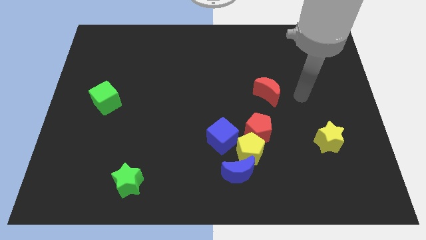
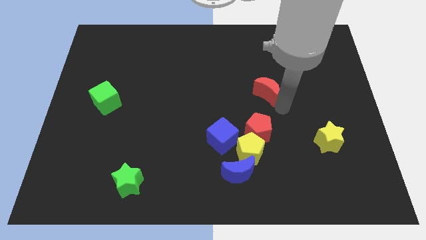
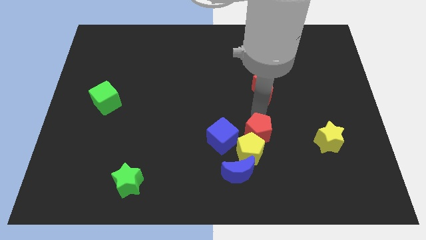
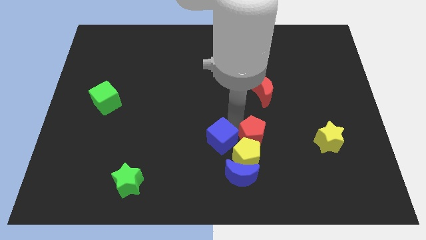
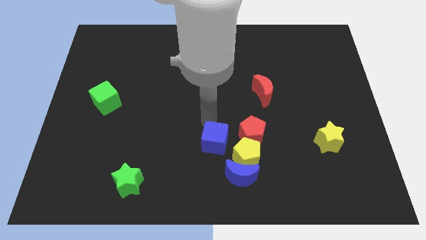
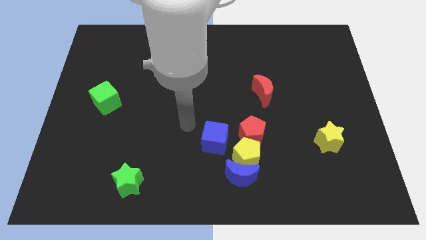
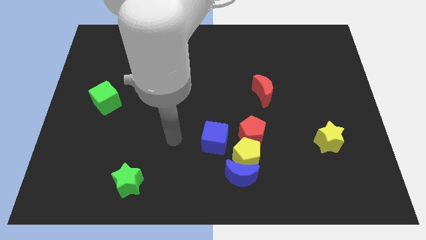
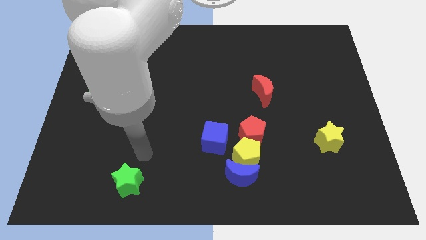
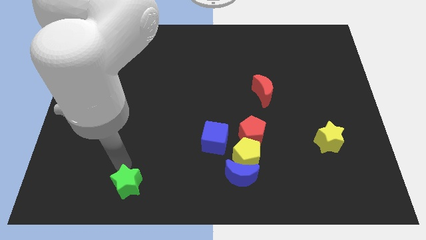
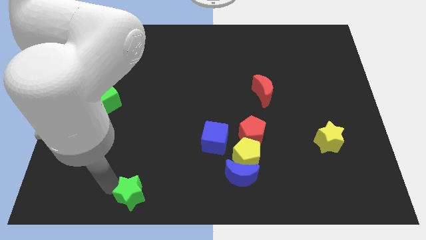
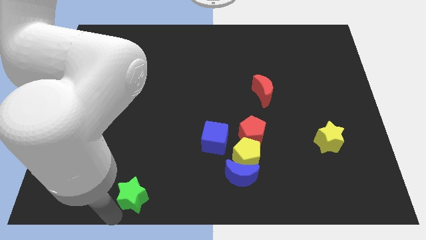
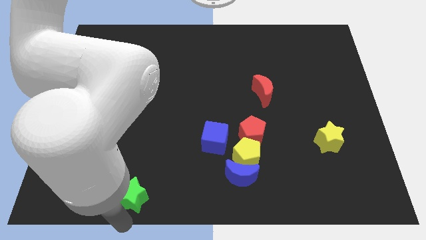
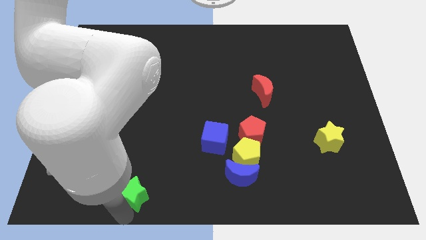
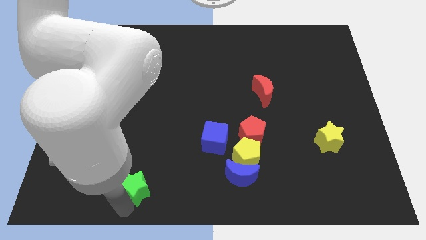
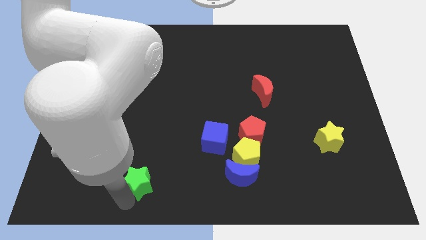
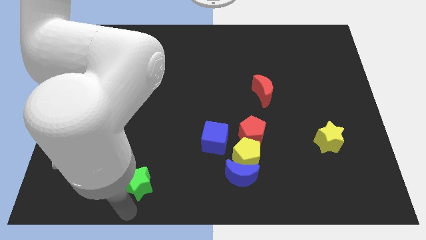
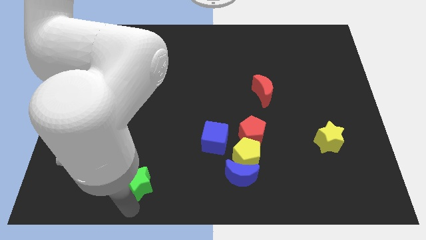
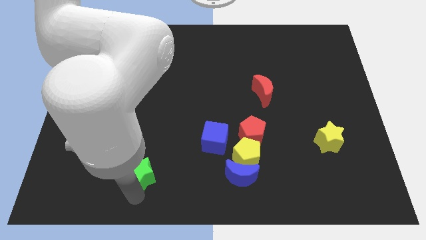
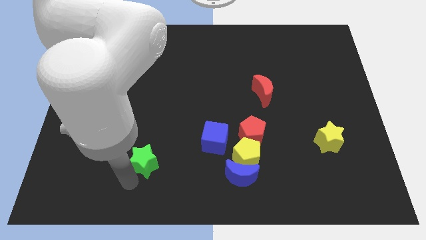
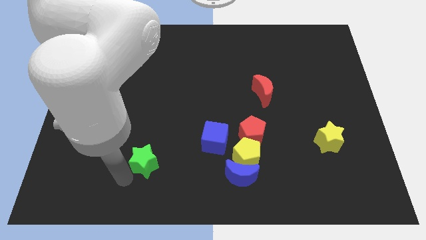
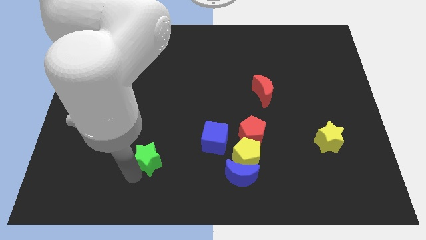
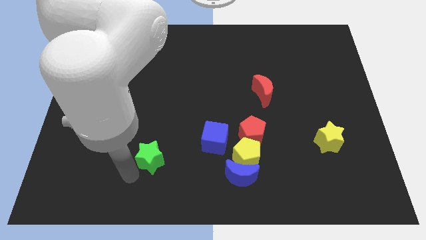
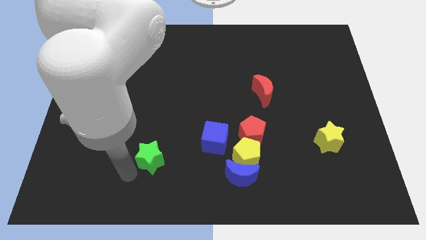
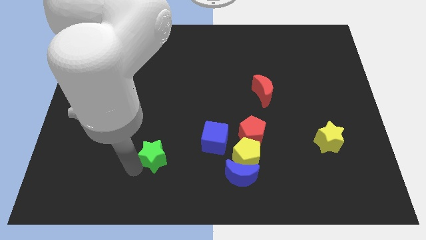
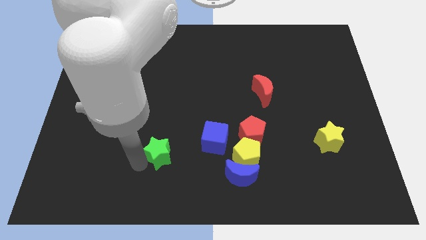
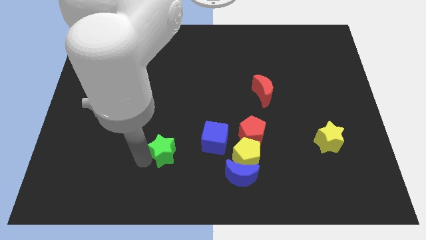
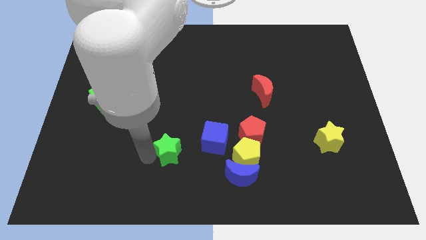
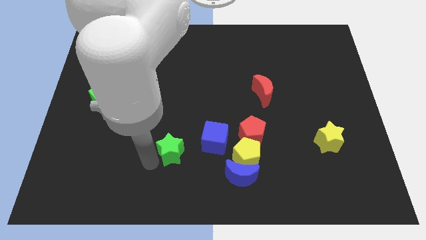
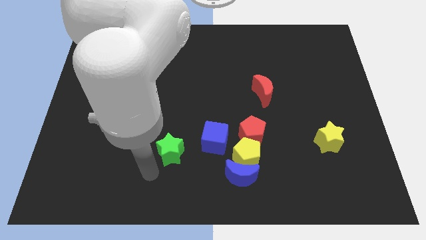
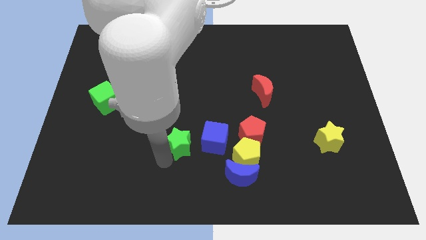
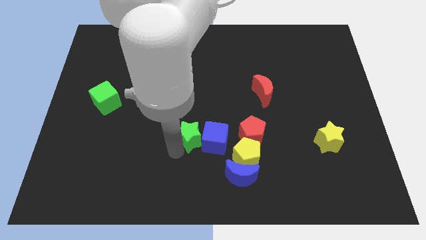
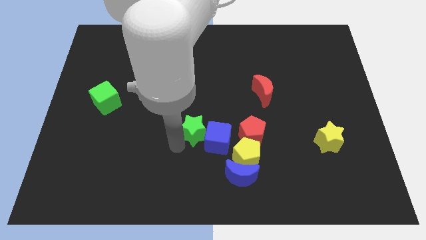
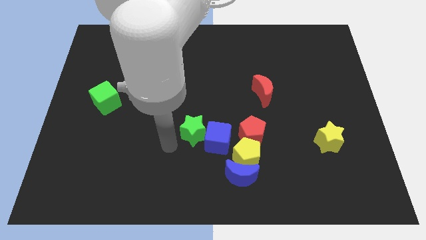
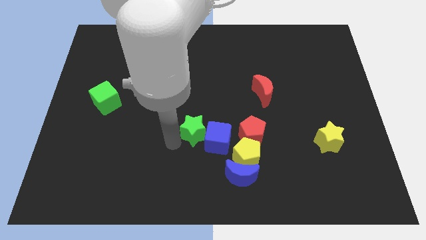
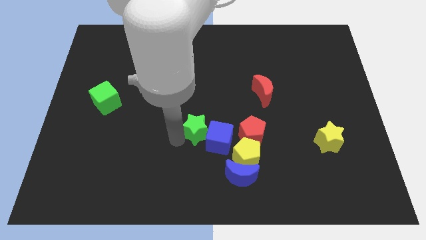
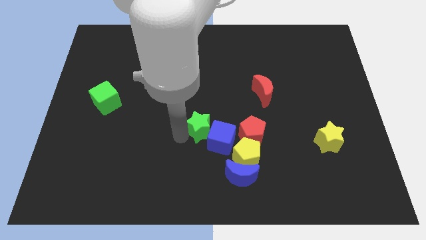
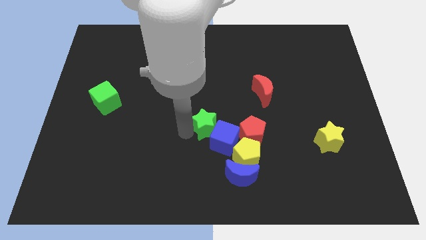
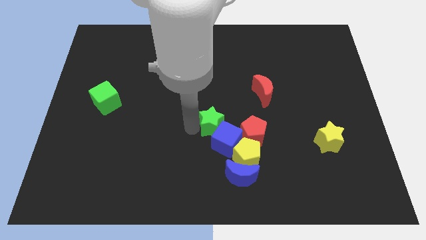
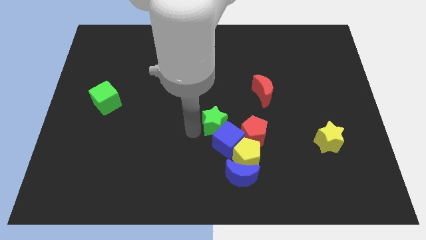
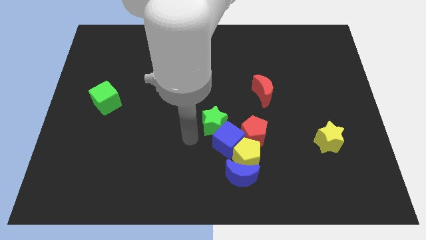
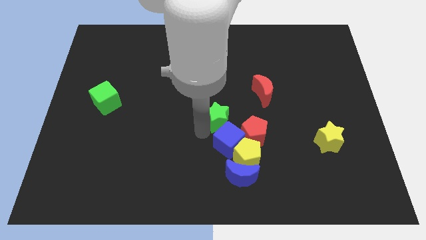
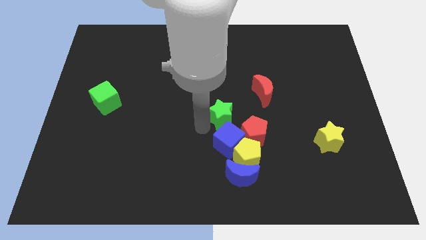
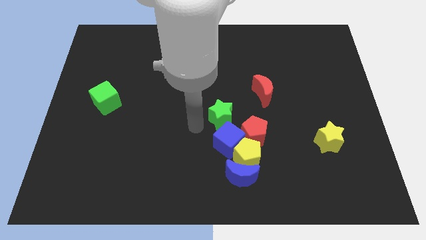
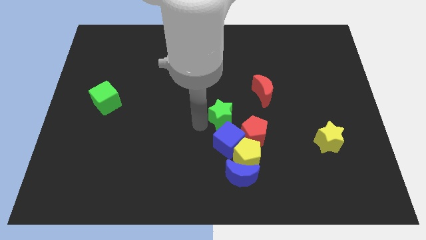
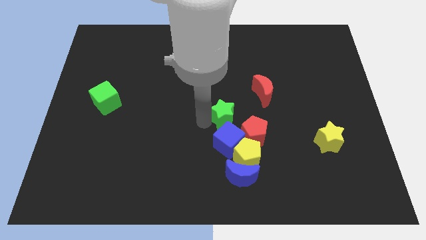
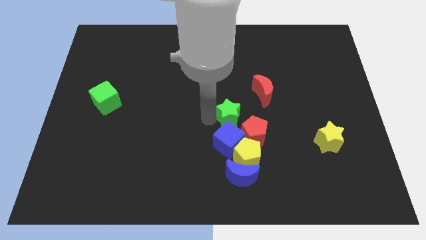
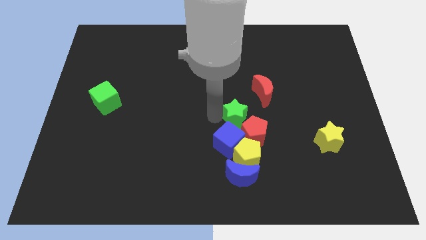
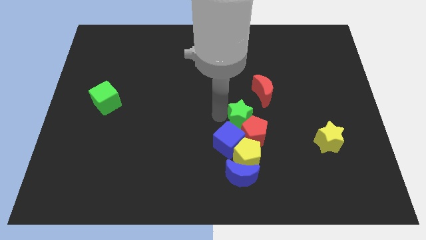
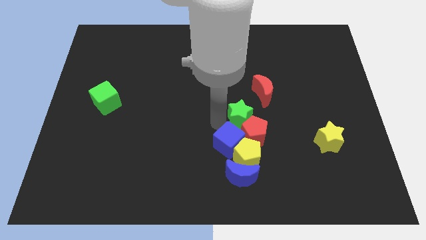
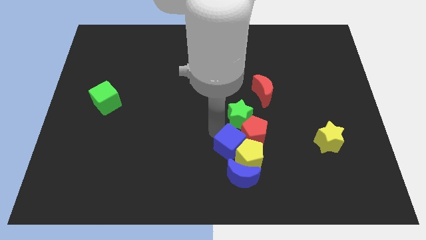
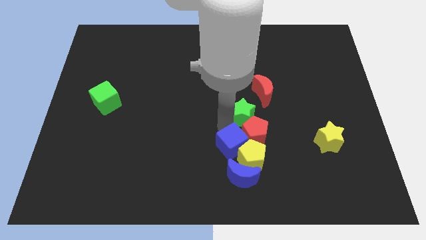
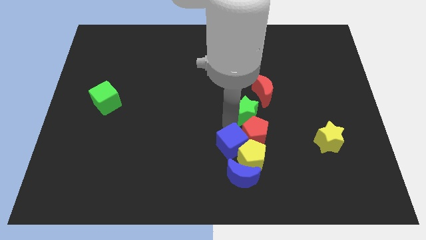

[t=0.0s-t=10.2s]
put the green star to the bottom side of the red moon

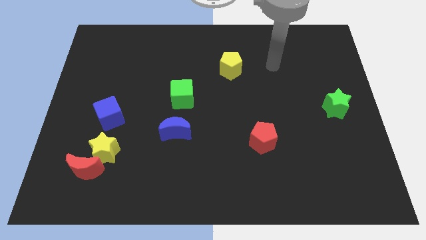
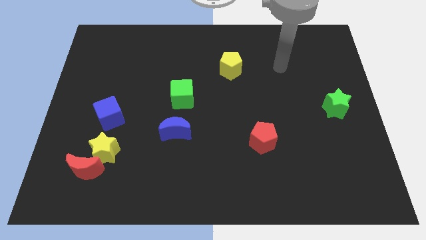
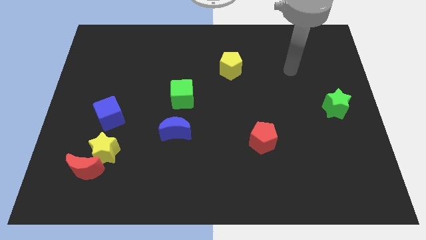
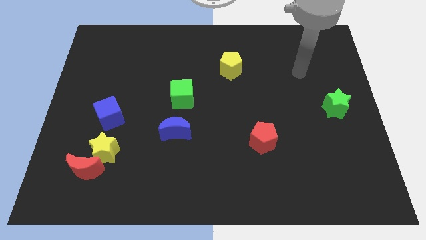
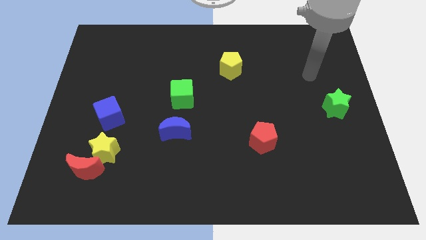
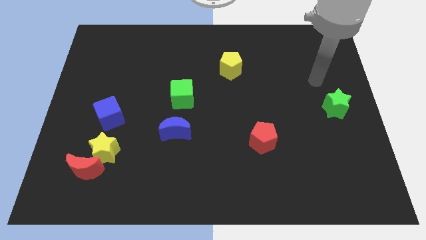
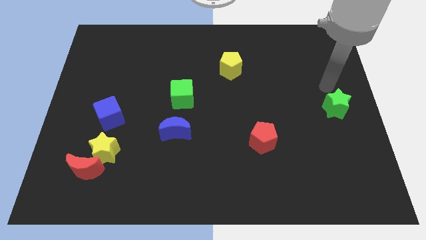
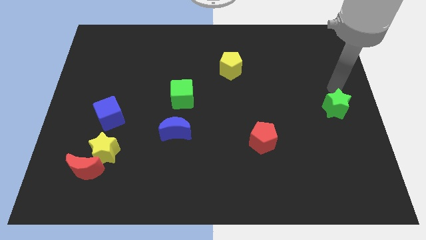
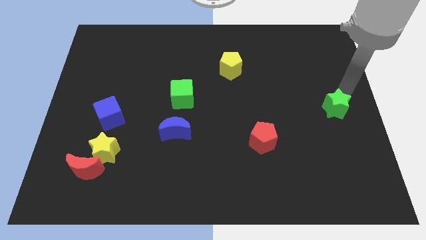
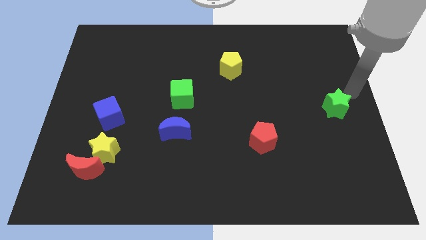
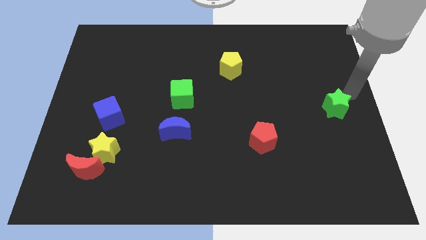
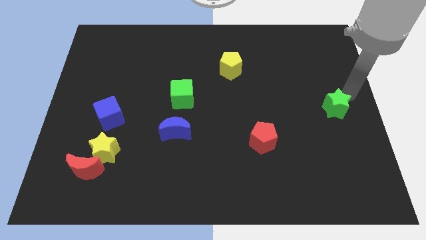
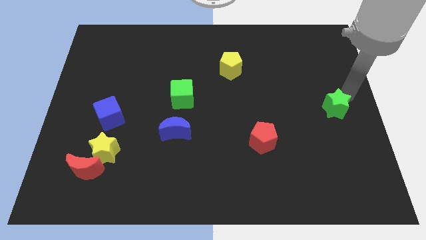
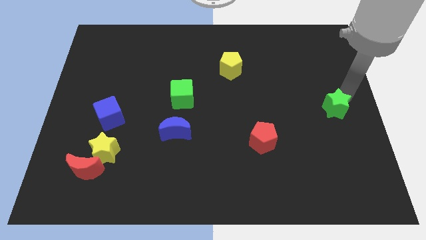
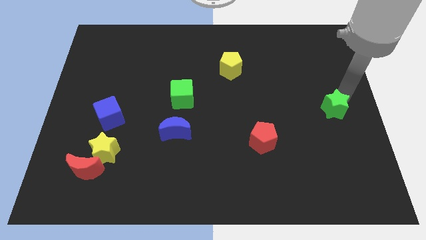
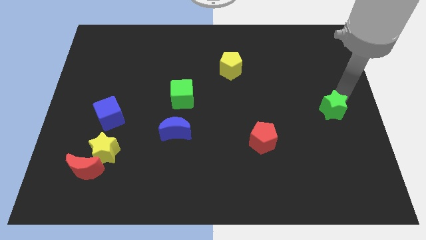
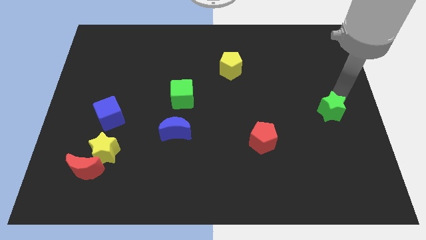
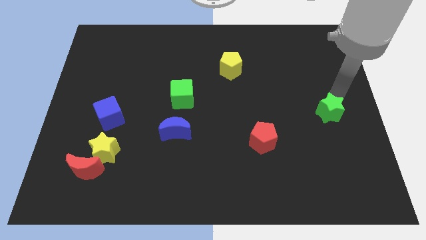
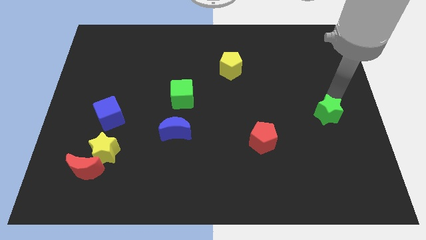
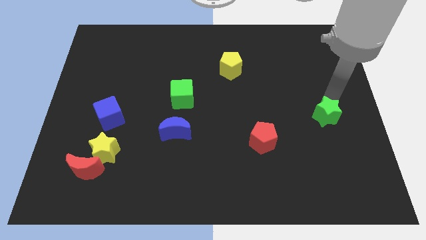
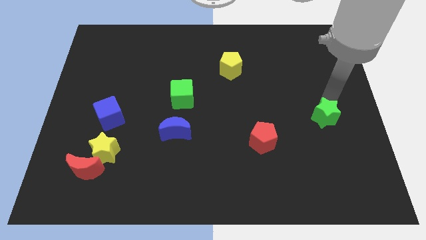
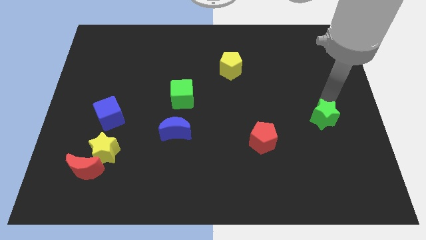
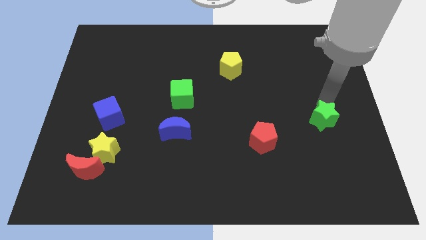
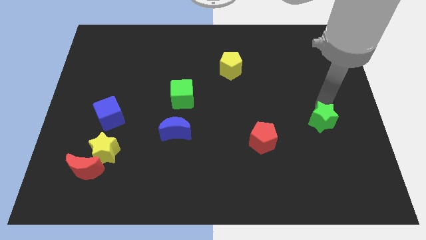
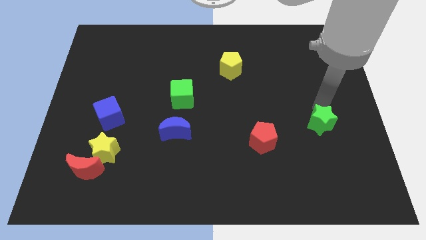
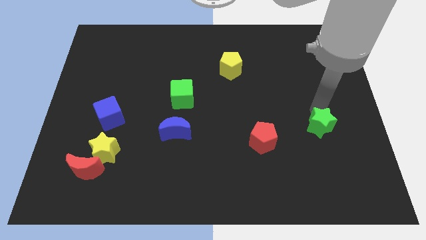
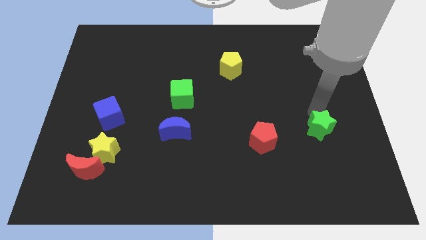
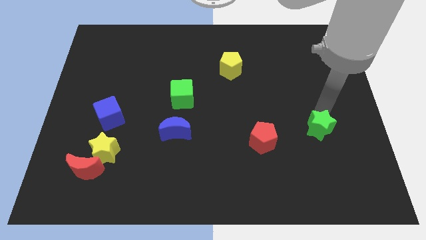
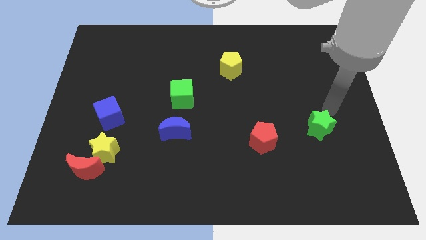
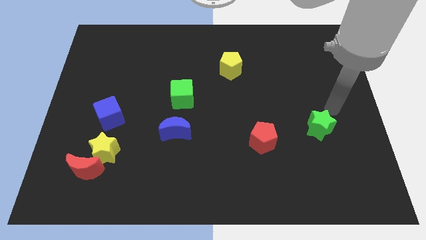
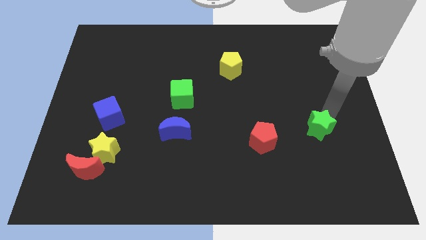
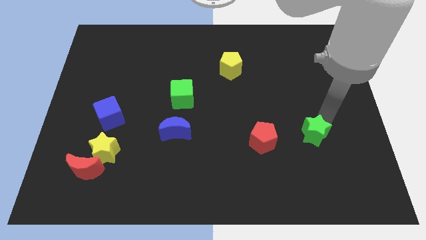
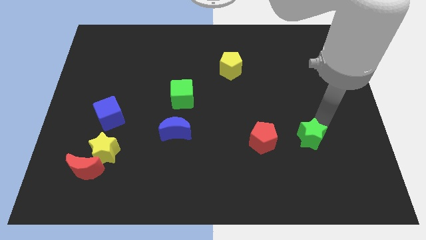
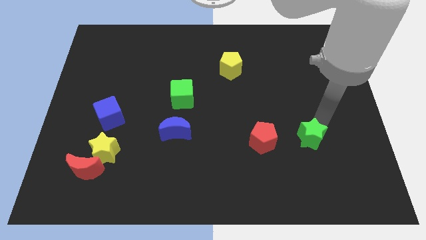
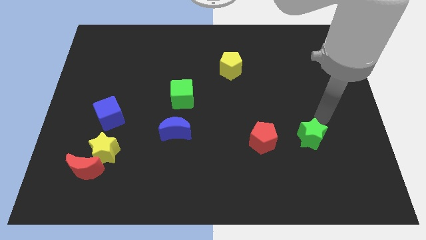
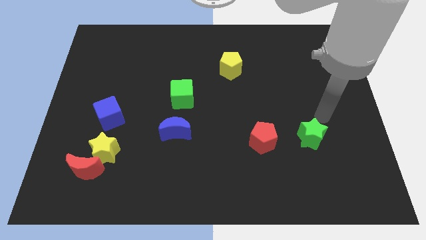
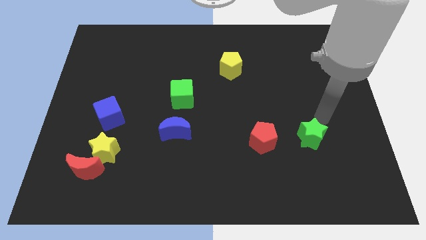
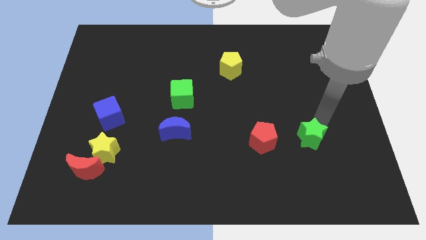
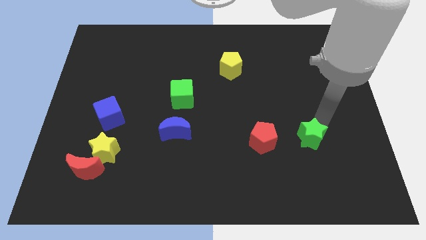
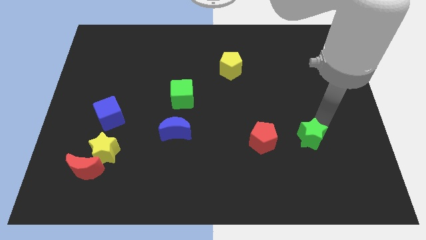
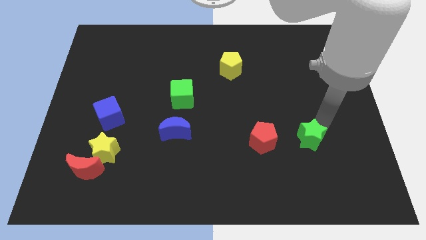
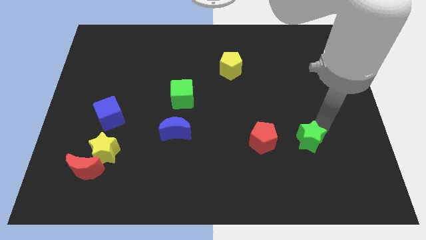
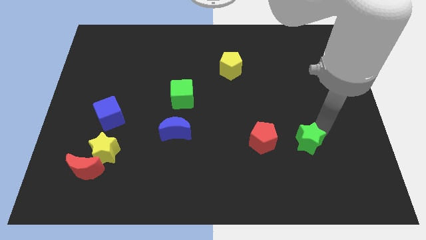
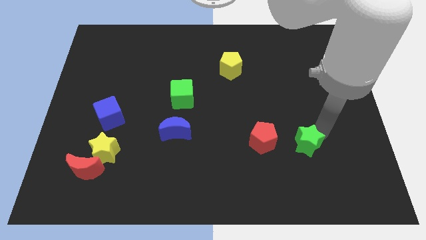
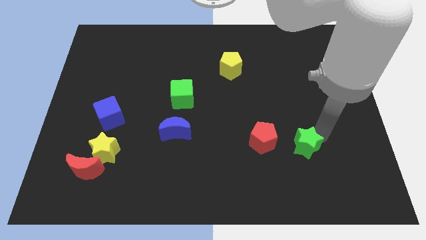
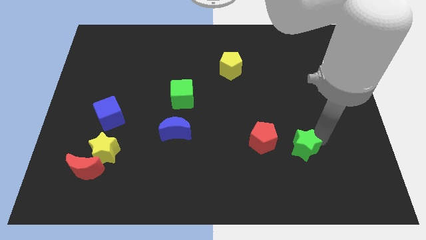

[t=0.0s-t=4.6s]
slide the green star diagonally down and to the right of the red pentagon
